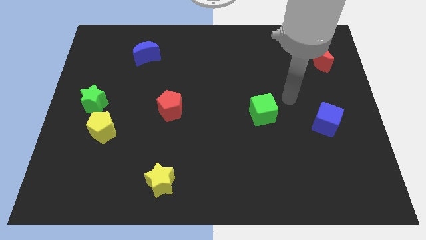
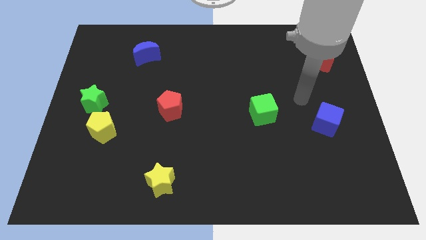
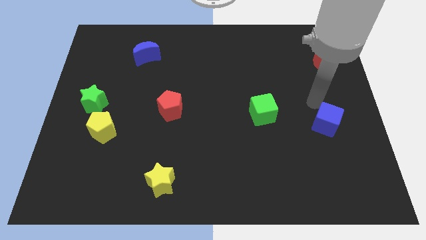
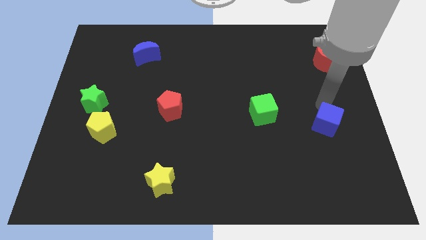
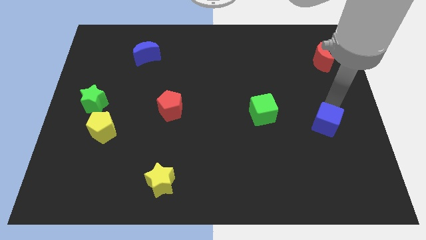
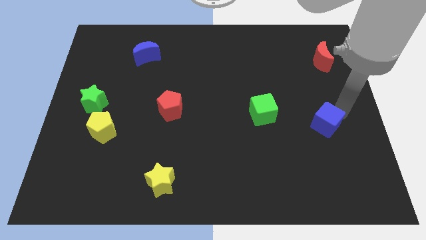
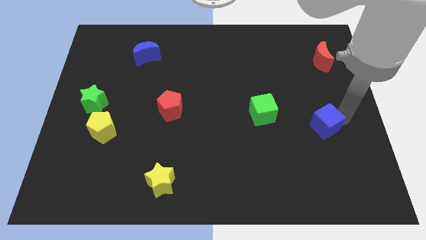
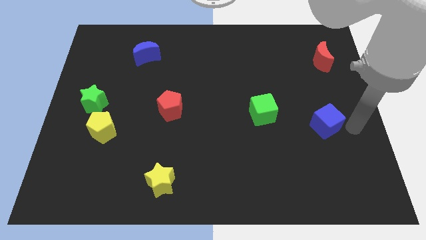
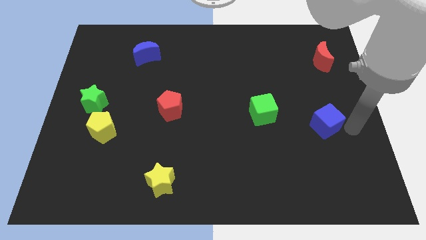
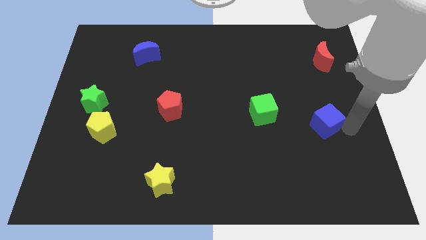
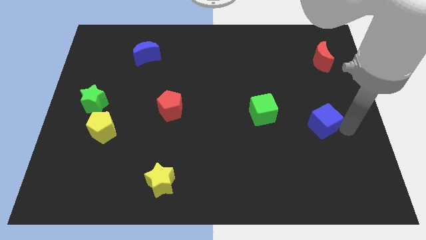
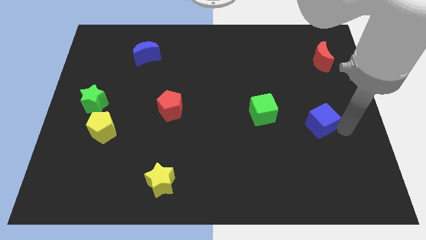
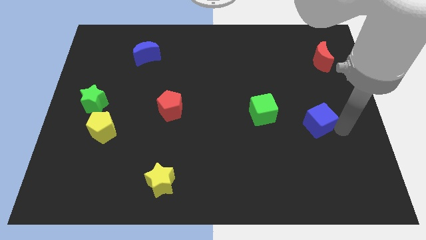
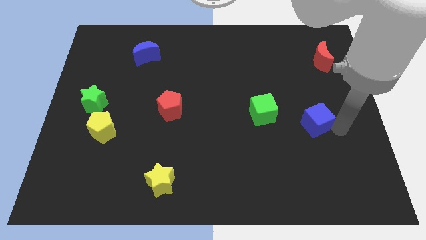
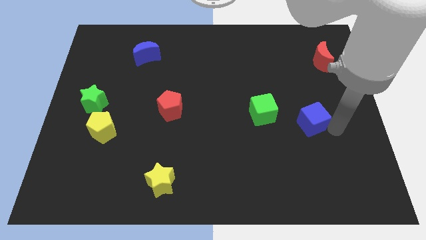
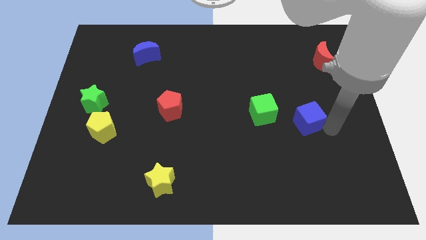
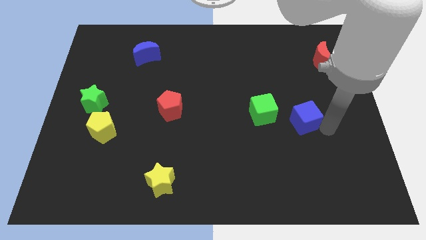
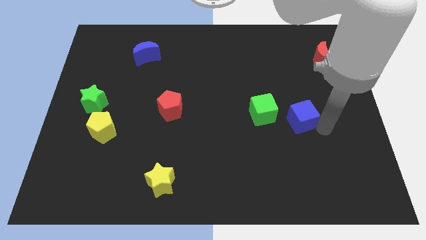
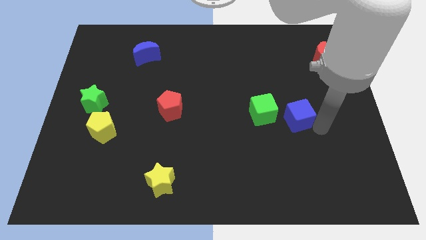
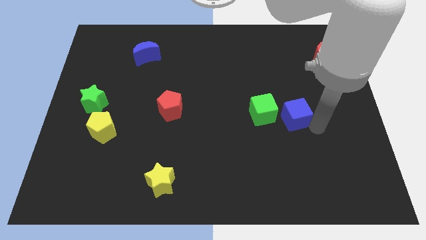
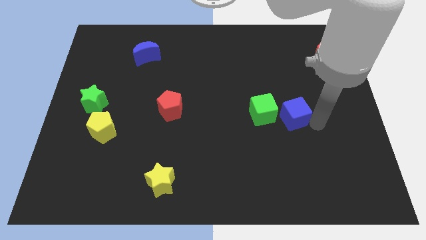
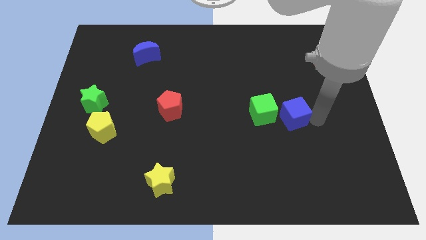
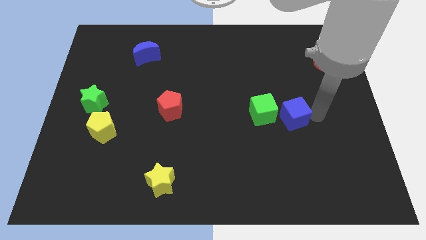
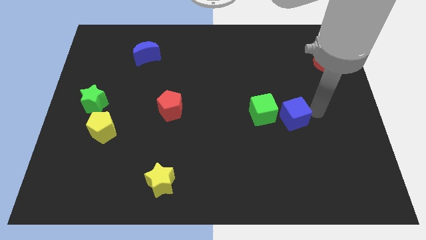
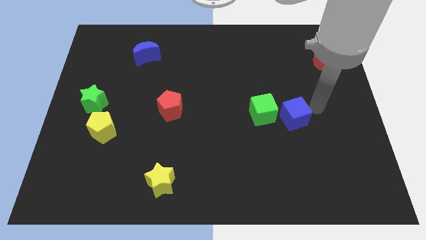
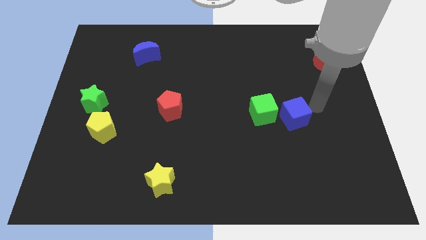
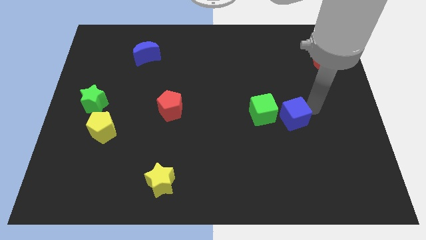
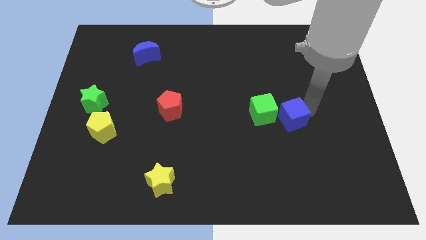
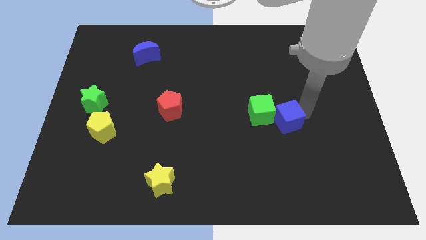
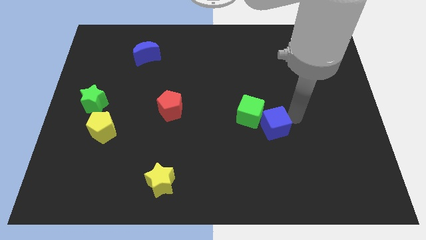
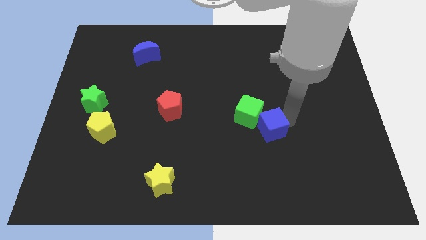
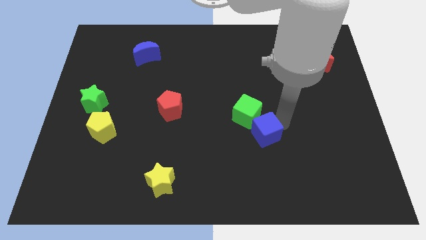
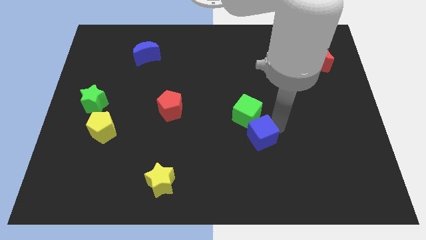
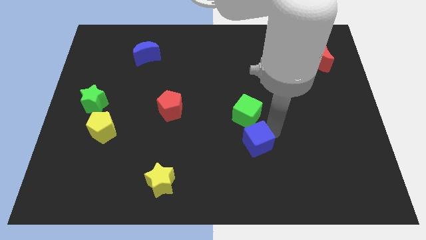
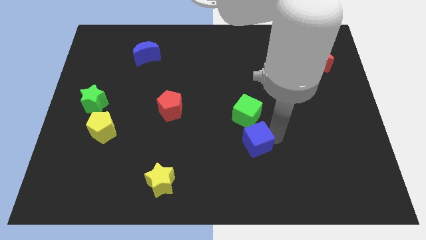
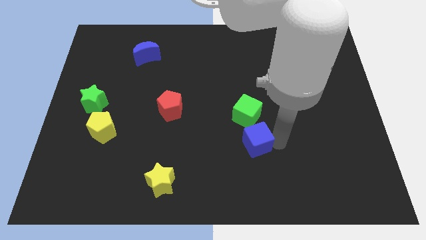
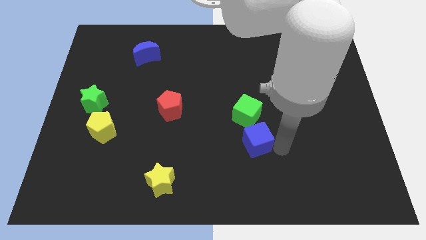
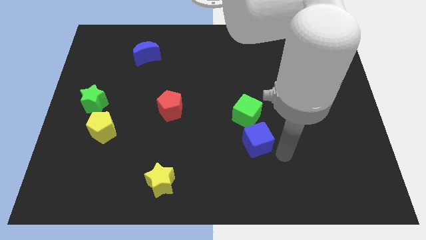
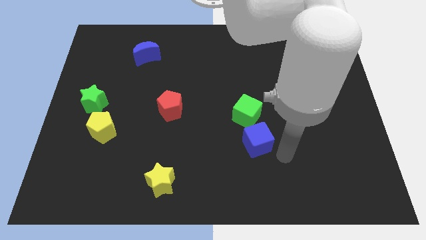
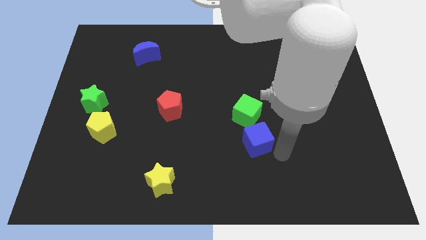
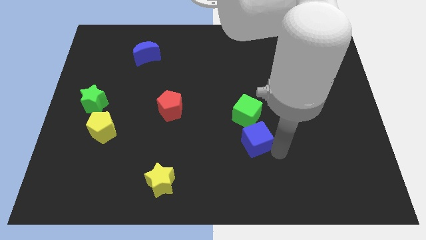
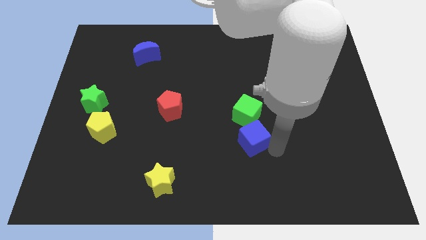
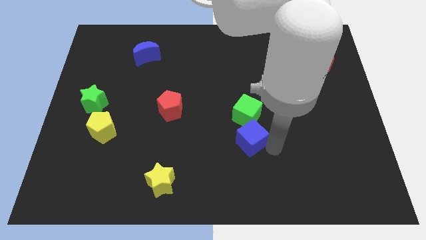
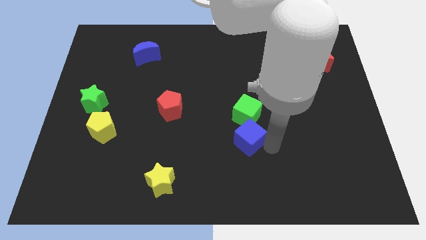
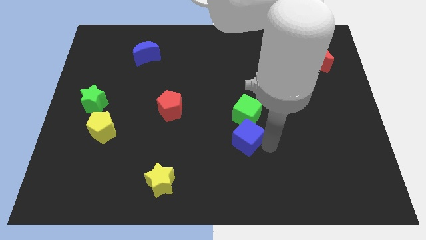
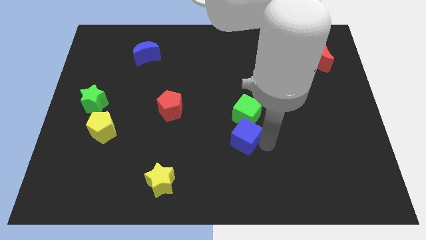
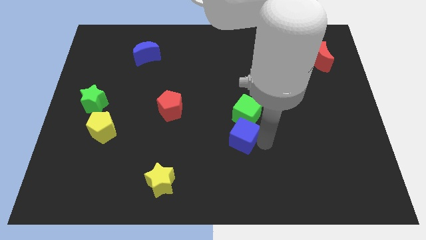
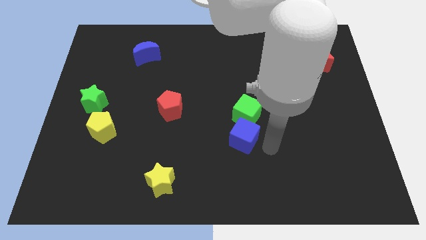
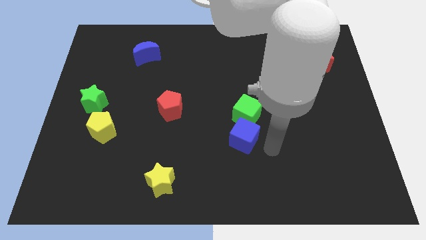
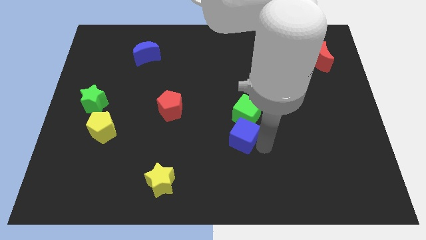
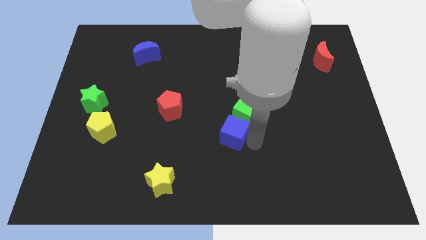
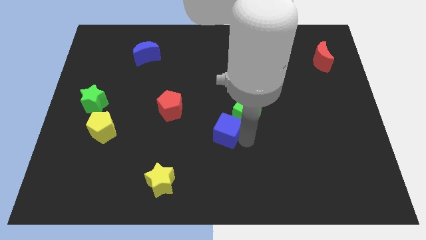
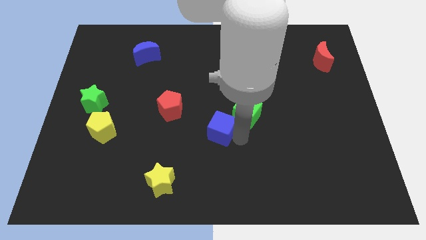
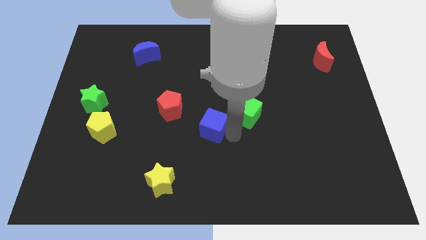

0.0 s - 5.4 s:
put the blue cube to the bottom right of the red pentagon

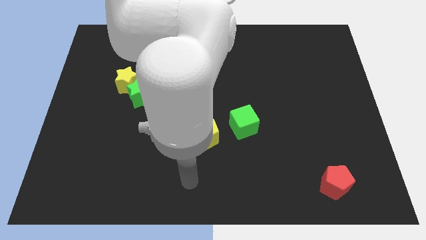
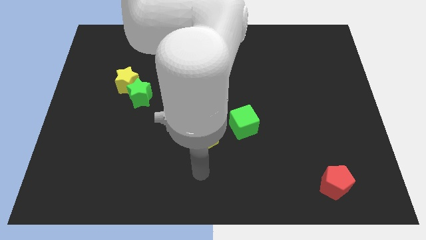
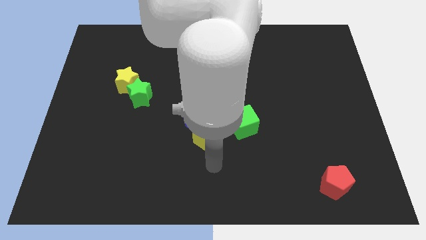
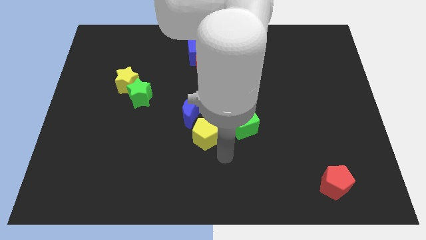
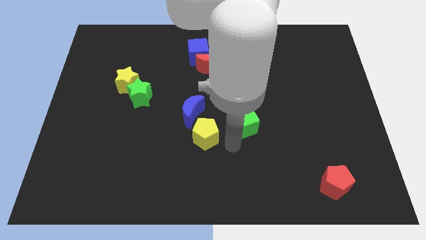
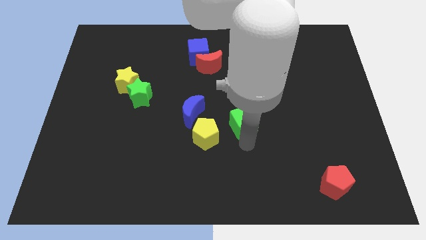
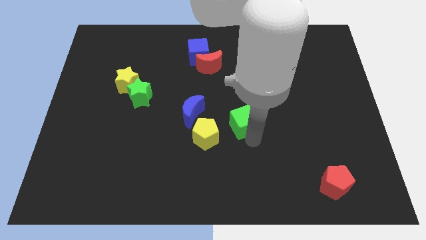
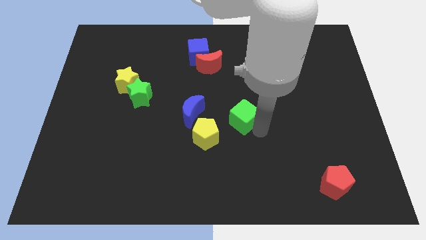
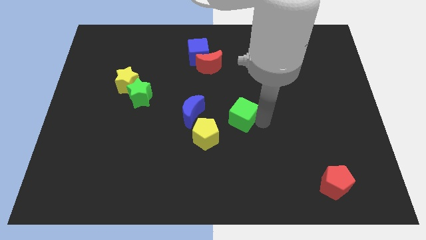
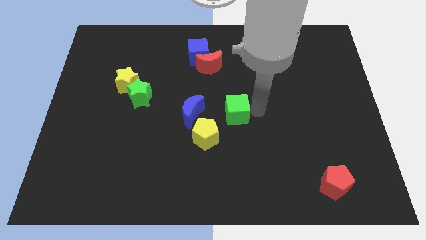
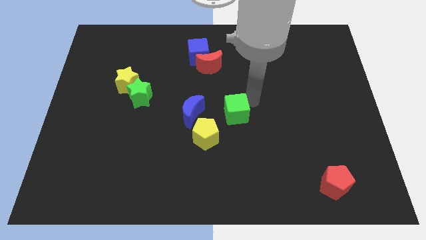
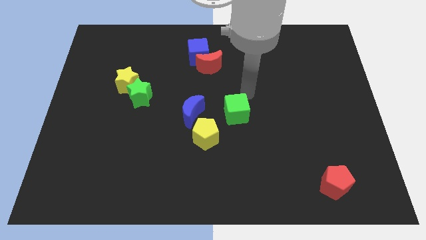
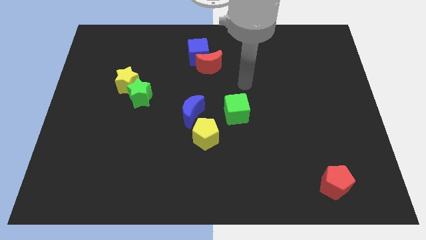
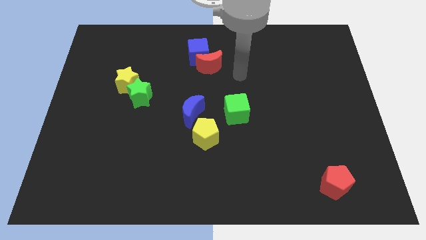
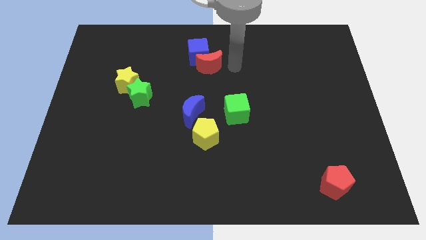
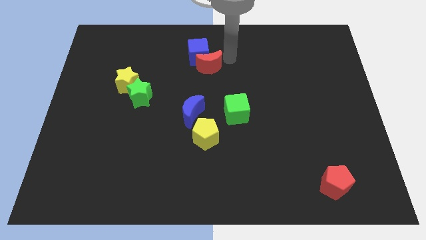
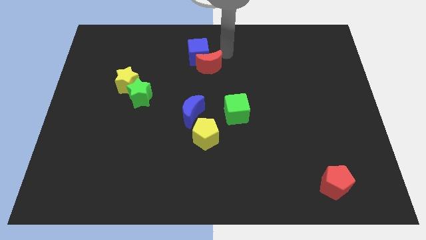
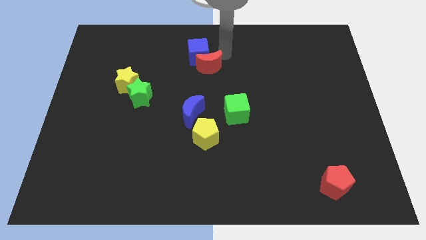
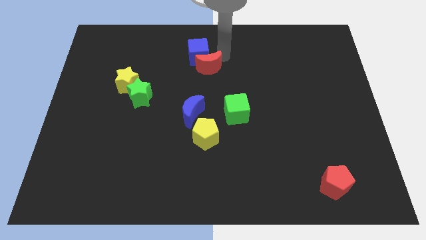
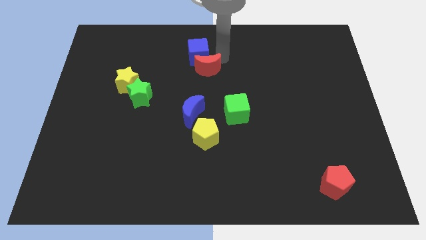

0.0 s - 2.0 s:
move the red moon above the blue moon
